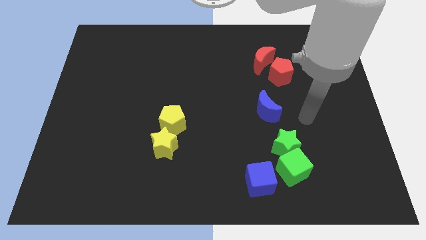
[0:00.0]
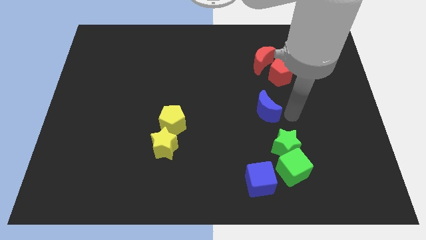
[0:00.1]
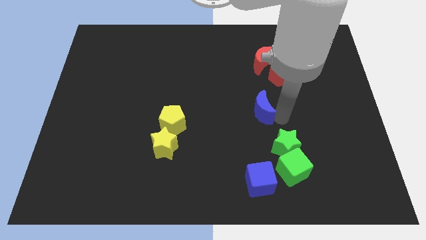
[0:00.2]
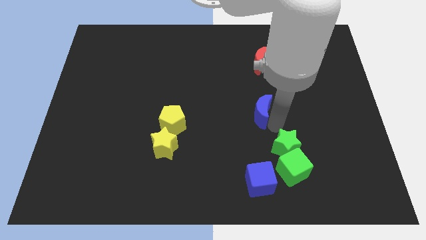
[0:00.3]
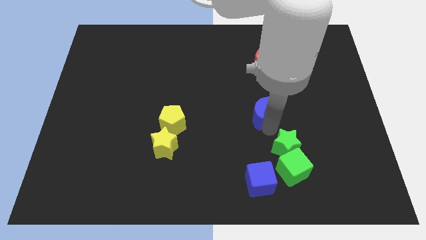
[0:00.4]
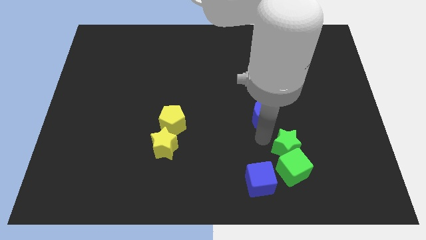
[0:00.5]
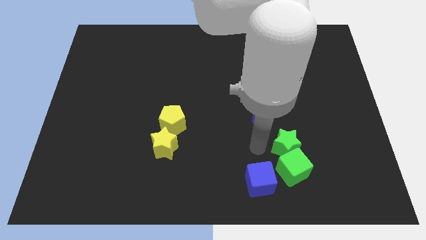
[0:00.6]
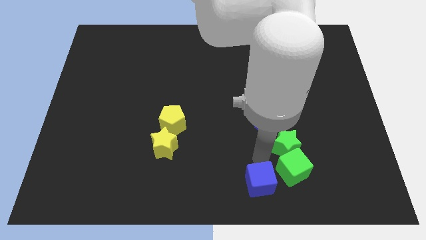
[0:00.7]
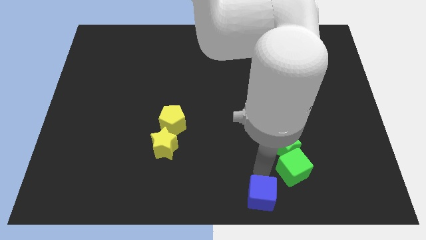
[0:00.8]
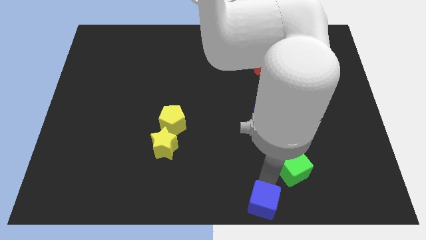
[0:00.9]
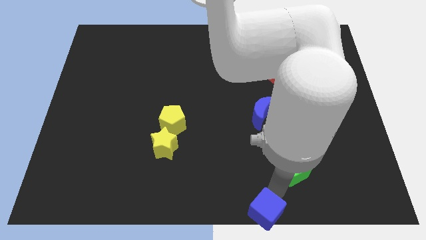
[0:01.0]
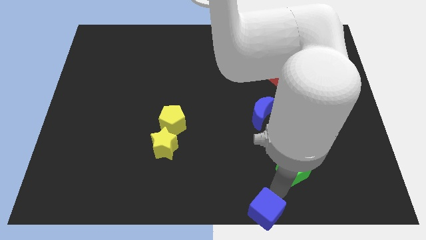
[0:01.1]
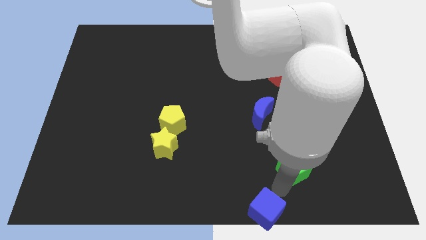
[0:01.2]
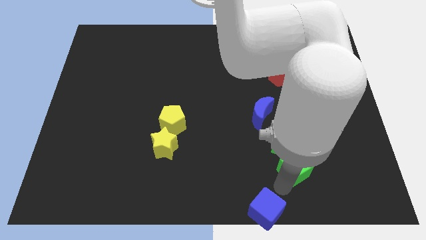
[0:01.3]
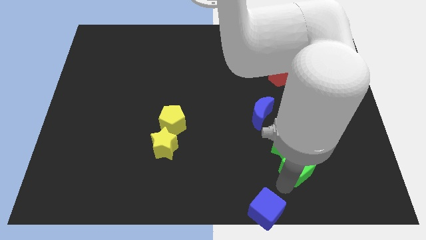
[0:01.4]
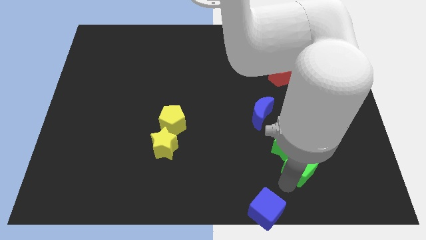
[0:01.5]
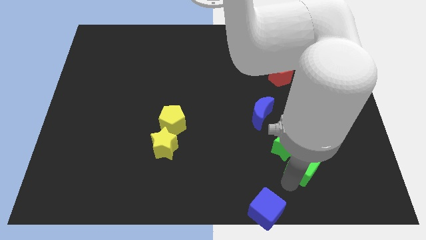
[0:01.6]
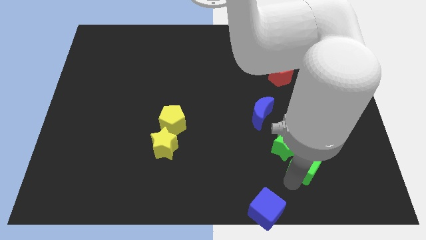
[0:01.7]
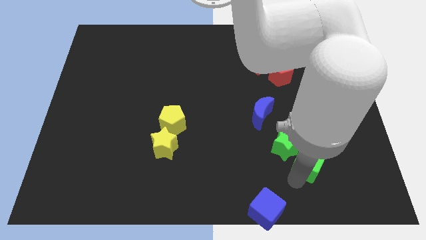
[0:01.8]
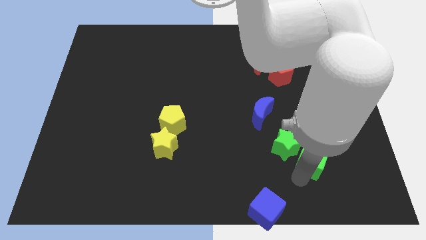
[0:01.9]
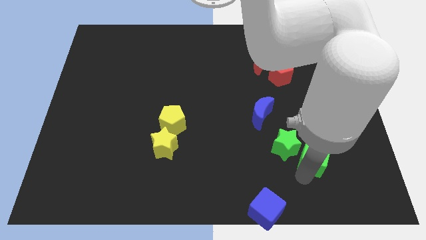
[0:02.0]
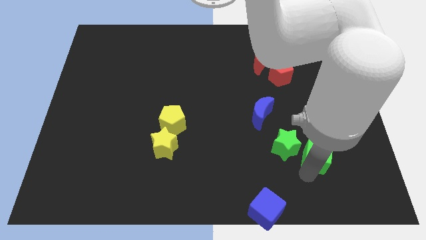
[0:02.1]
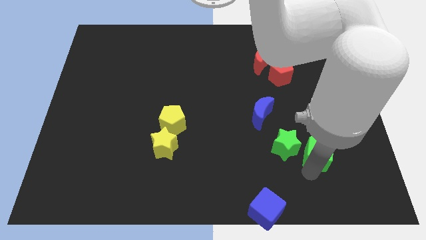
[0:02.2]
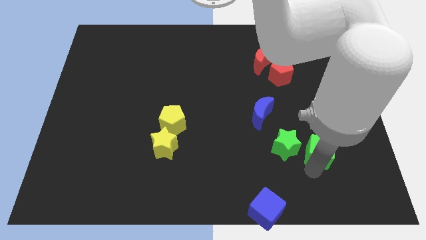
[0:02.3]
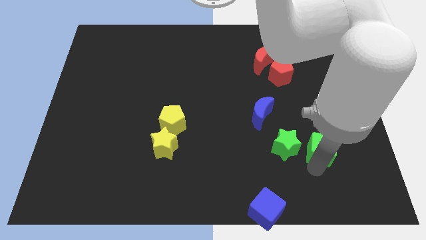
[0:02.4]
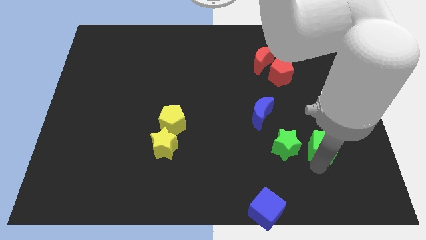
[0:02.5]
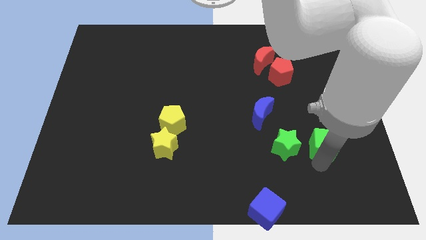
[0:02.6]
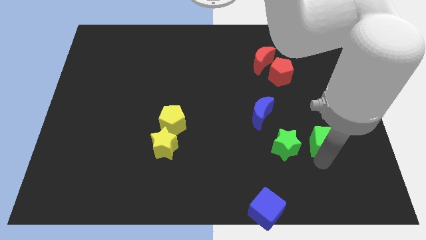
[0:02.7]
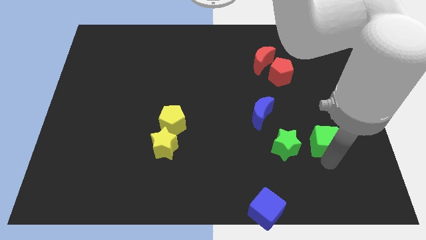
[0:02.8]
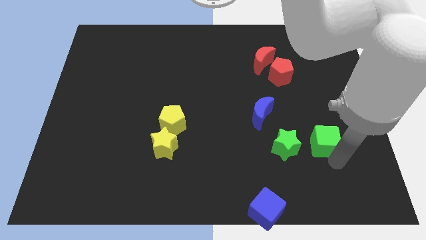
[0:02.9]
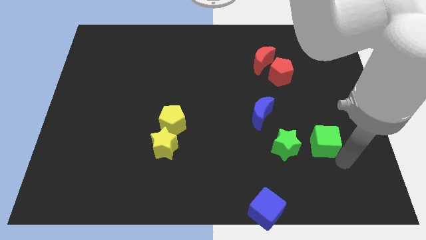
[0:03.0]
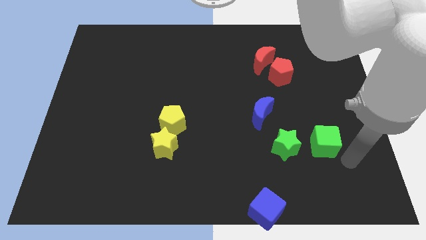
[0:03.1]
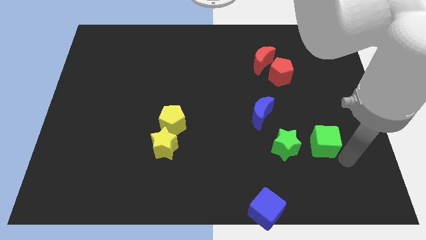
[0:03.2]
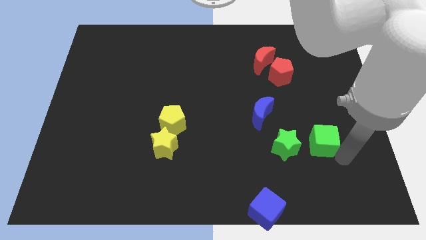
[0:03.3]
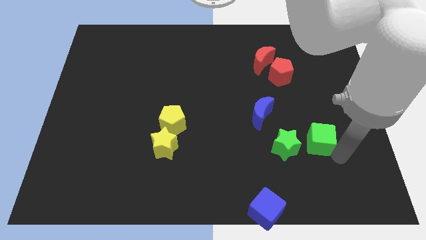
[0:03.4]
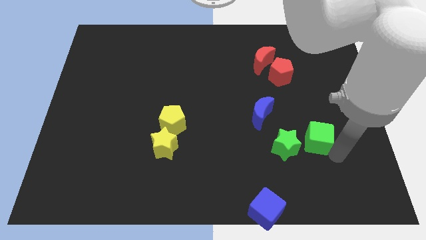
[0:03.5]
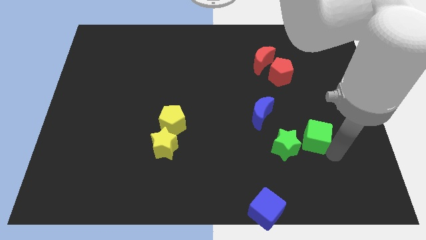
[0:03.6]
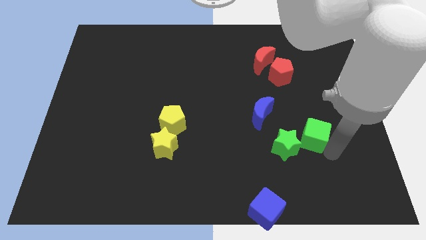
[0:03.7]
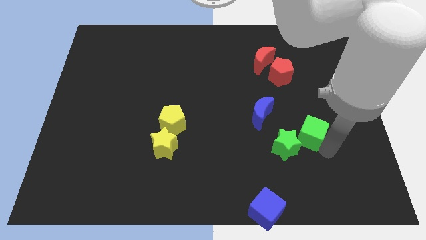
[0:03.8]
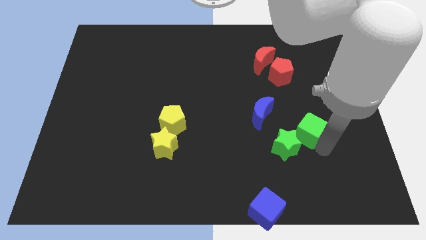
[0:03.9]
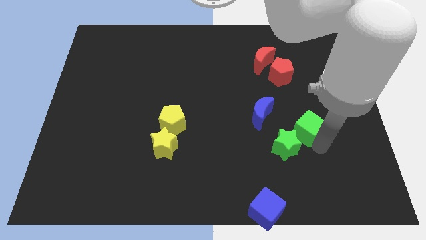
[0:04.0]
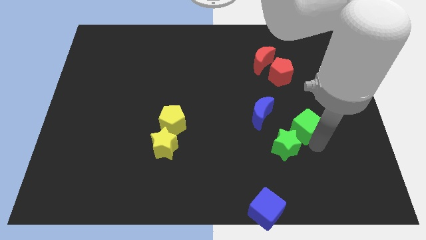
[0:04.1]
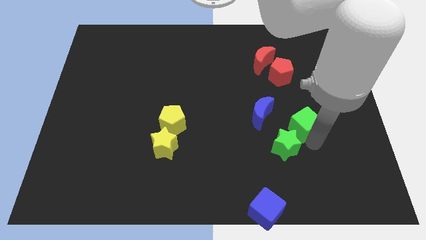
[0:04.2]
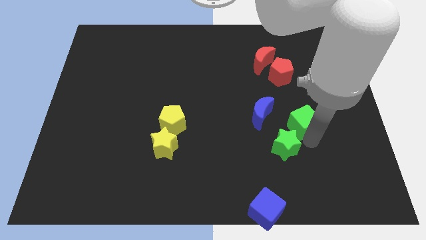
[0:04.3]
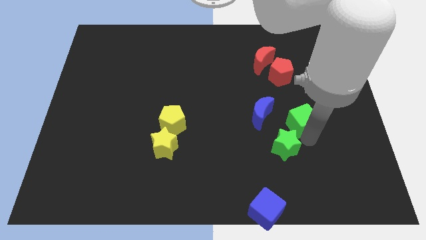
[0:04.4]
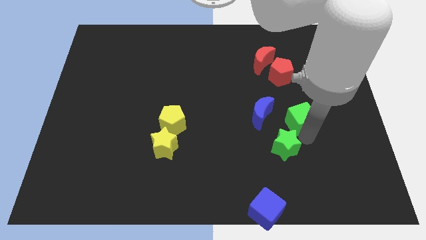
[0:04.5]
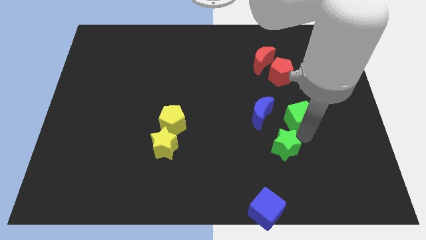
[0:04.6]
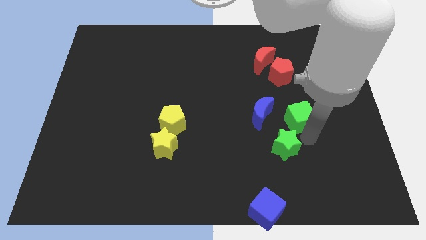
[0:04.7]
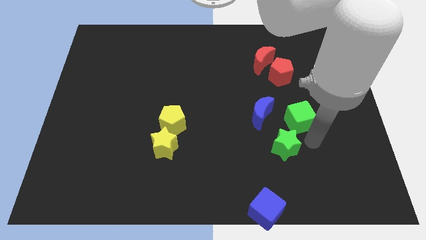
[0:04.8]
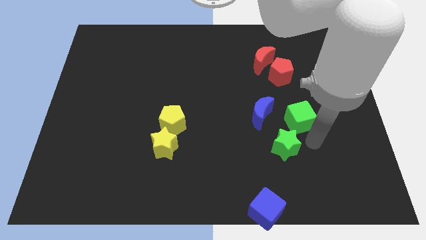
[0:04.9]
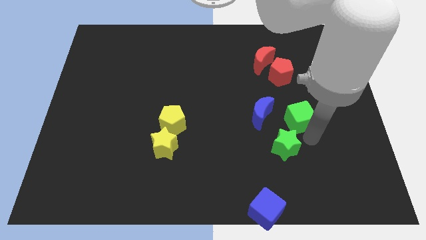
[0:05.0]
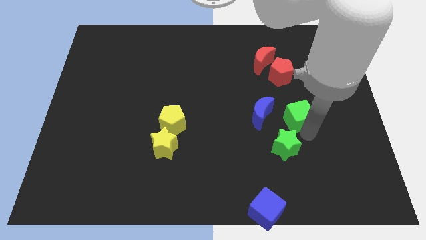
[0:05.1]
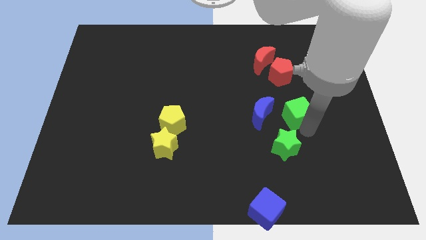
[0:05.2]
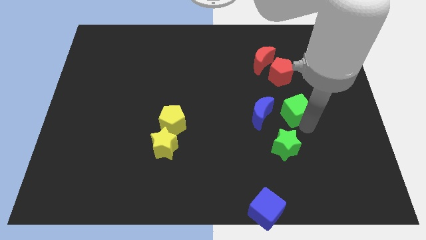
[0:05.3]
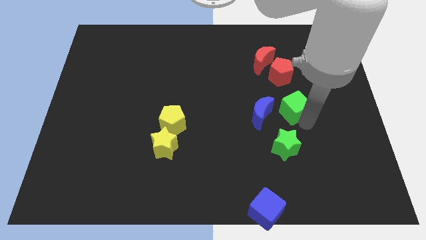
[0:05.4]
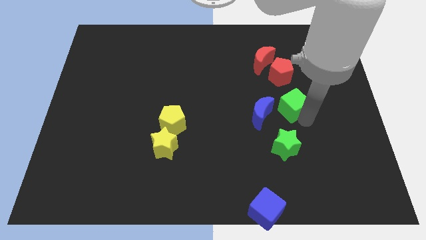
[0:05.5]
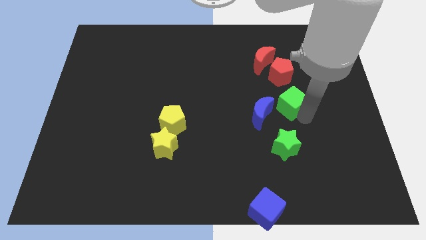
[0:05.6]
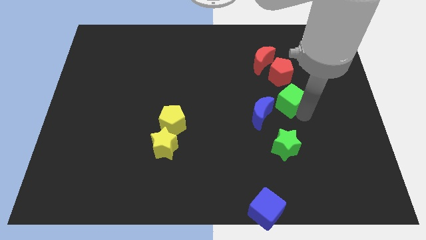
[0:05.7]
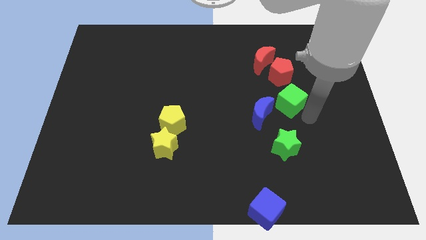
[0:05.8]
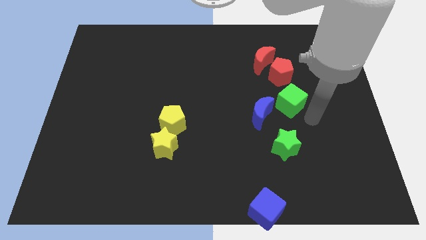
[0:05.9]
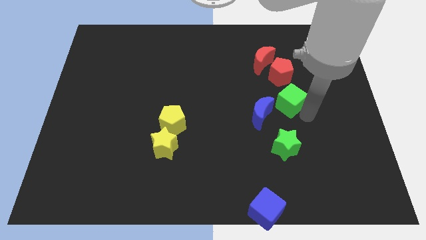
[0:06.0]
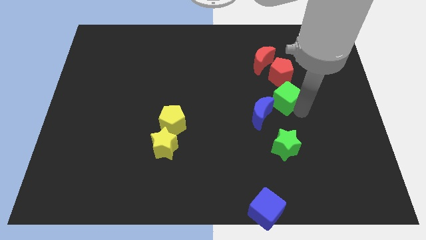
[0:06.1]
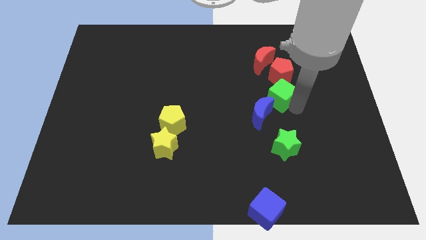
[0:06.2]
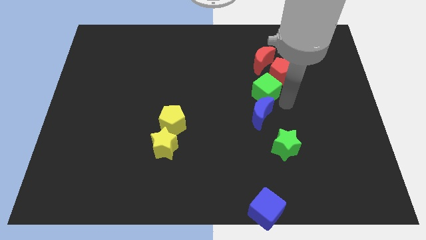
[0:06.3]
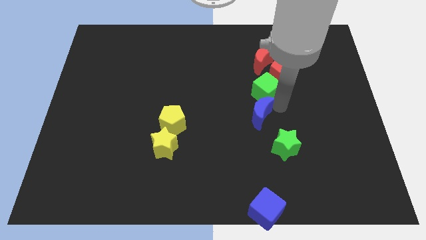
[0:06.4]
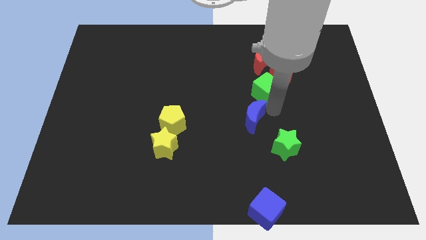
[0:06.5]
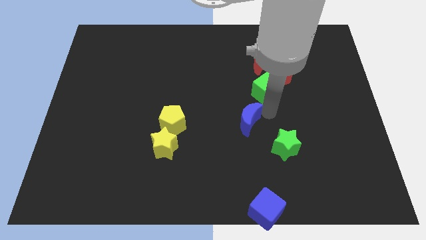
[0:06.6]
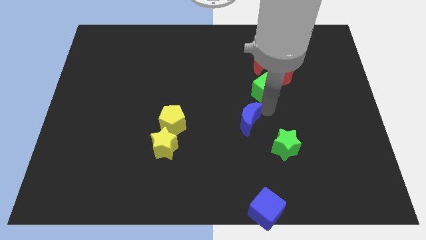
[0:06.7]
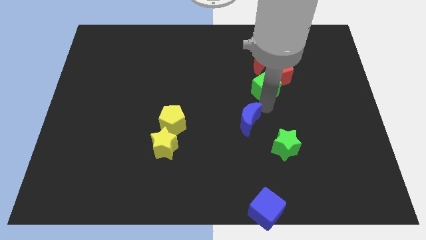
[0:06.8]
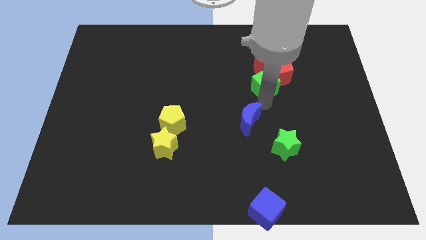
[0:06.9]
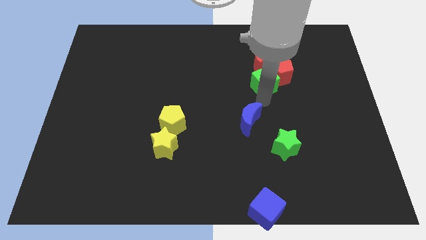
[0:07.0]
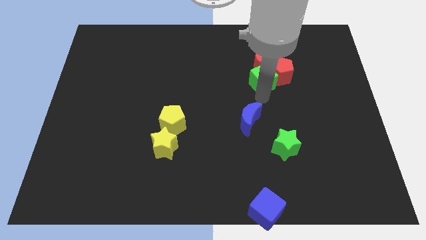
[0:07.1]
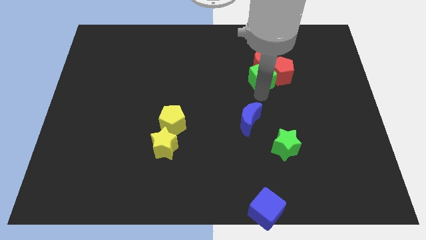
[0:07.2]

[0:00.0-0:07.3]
put the green cube close to the red moon
